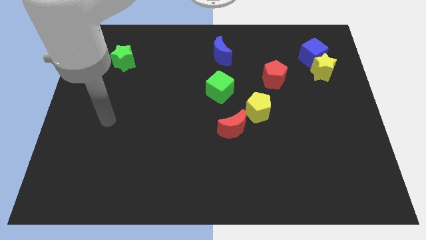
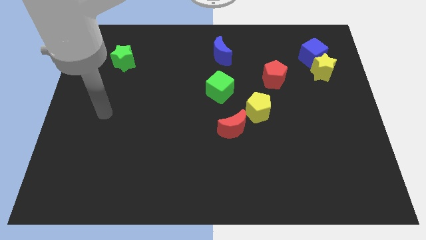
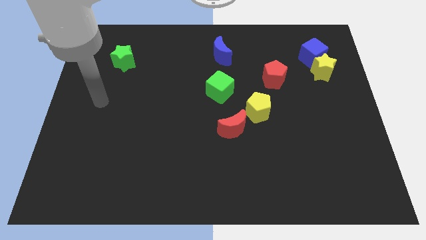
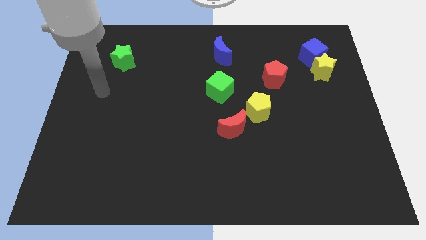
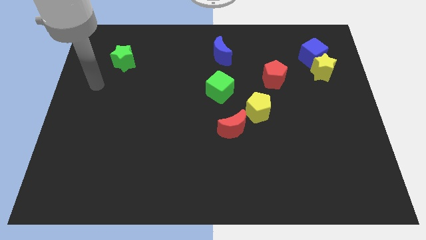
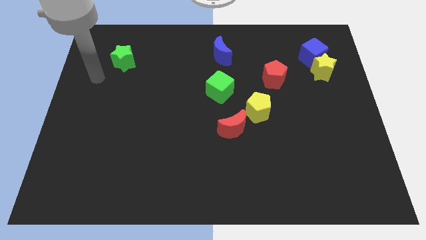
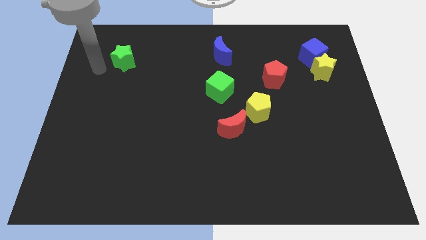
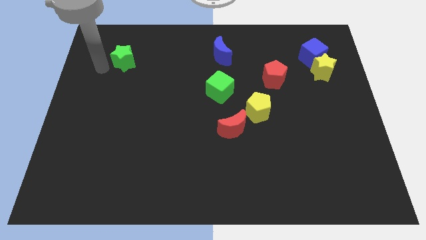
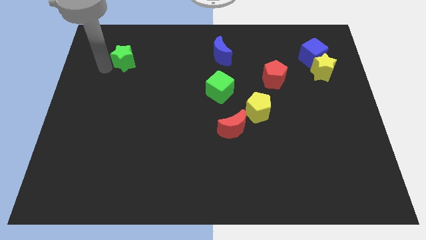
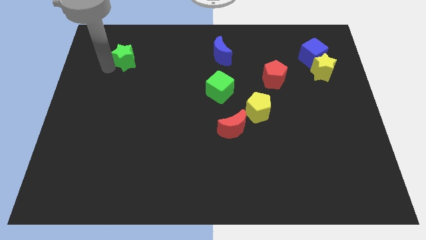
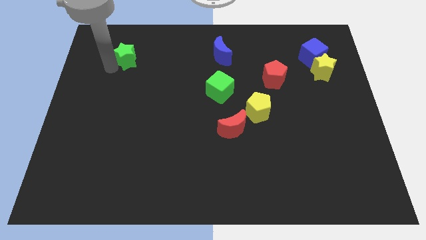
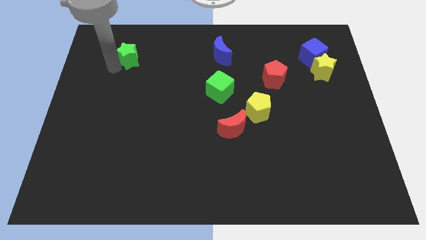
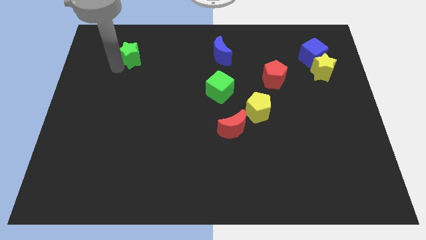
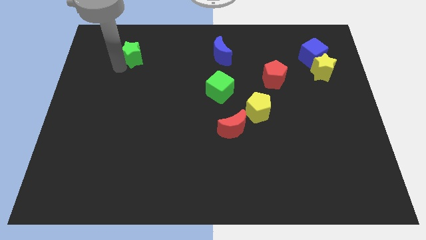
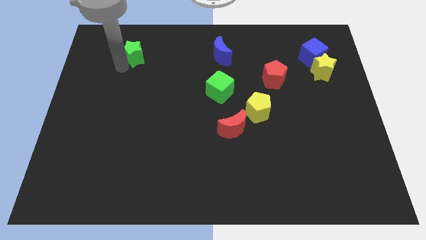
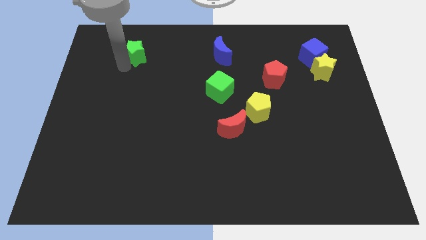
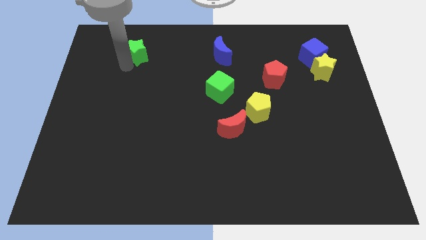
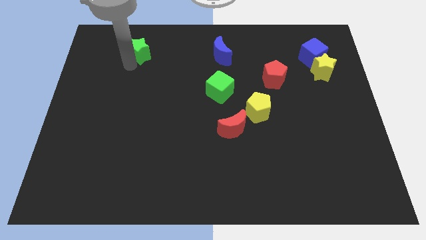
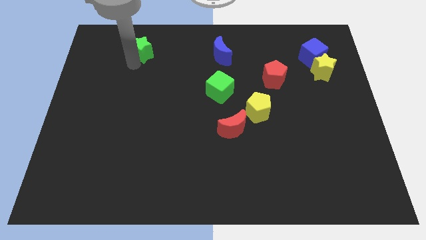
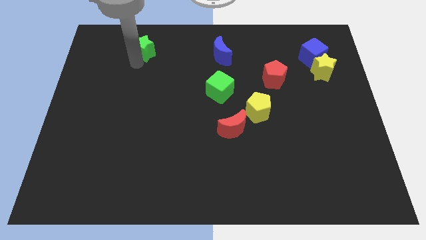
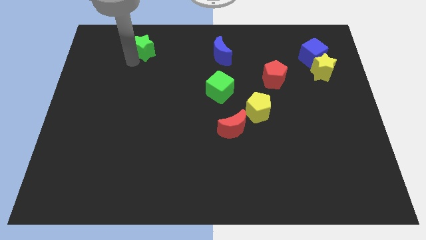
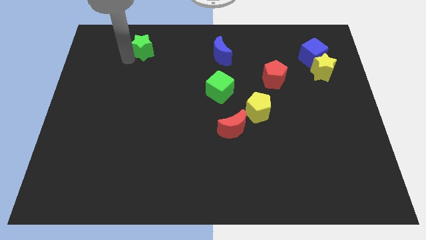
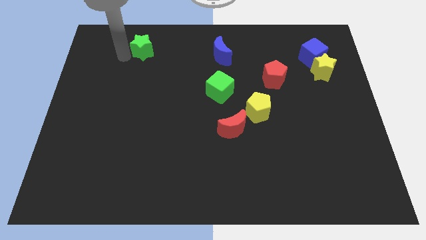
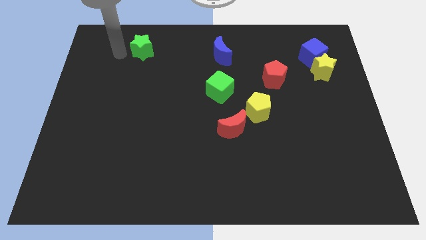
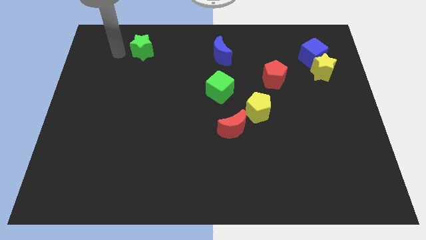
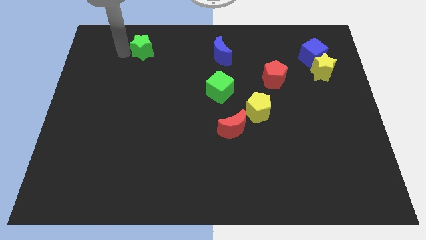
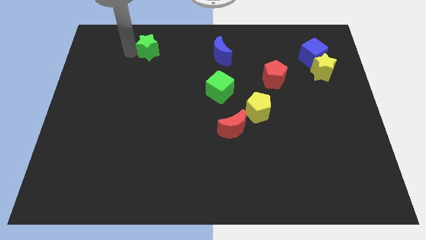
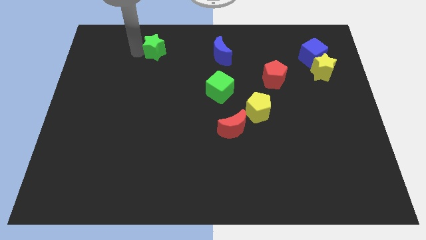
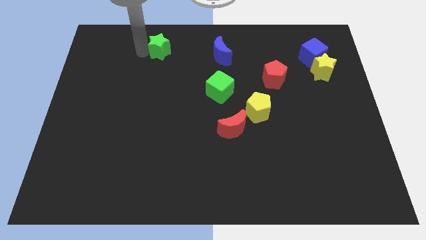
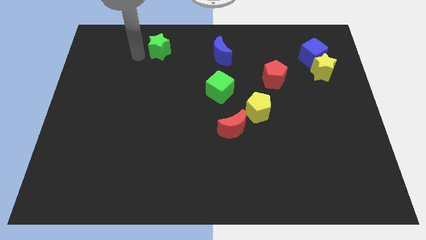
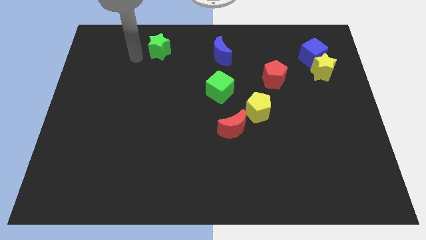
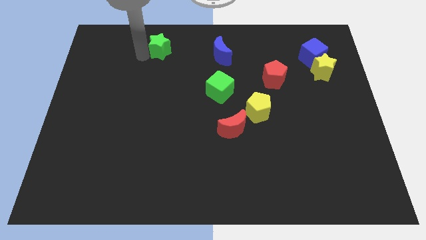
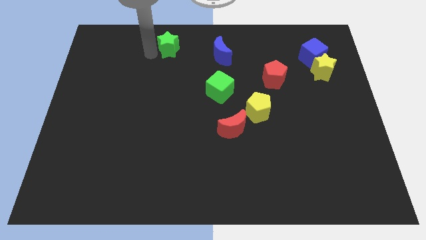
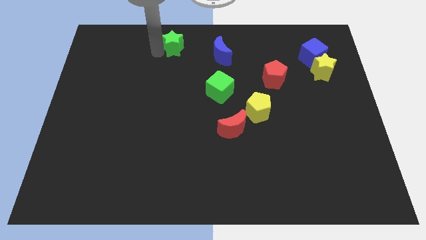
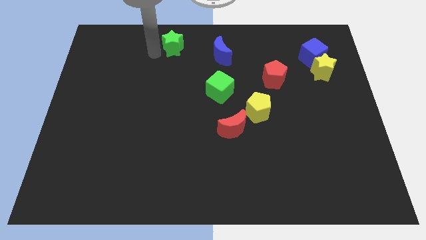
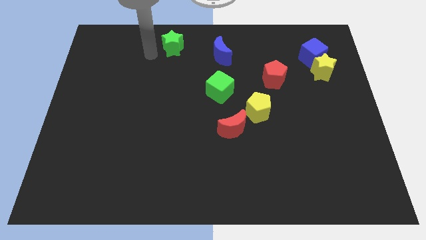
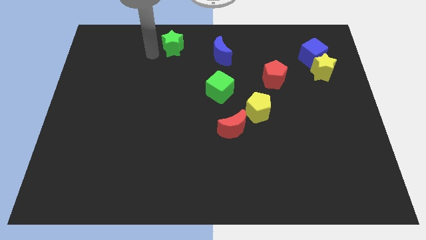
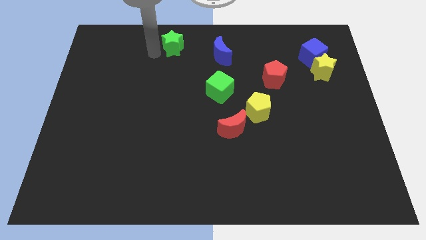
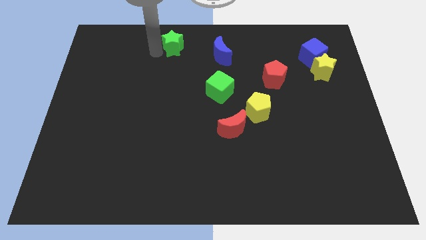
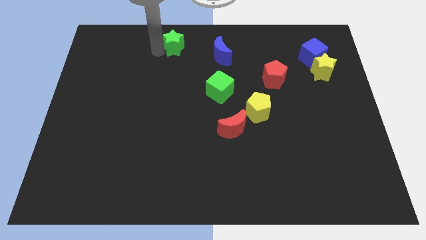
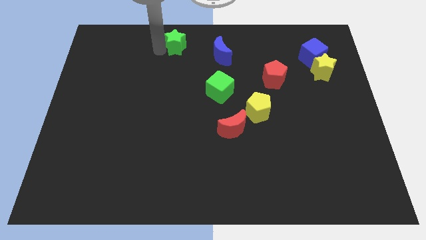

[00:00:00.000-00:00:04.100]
slide the green star to the top

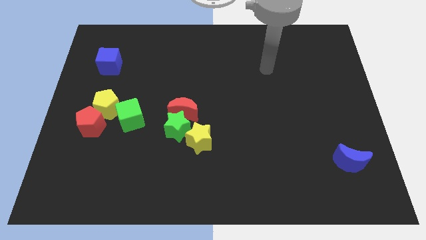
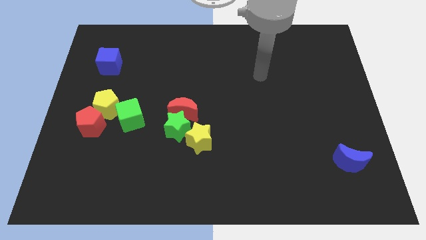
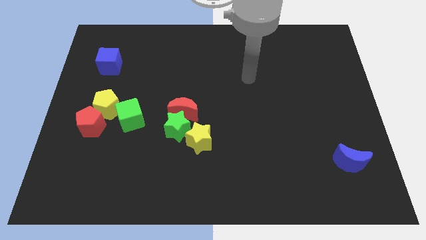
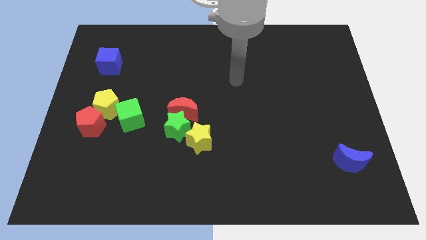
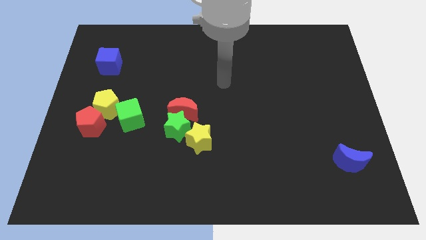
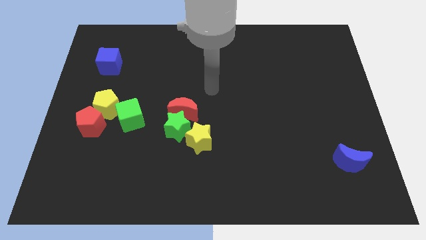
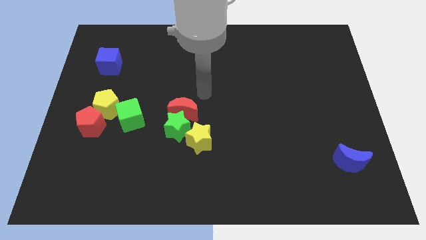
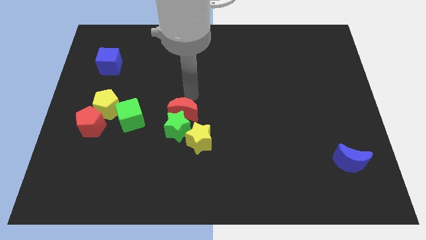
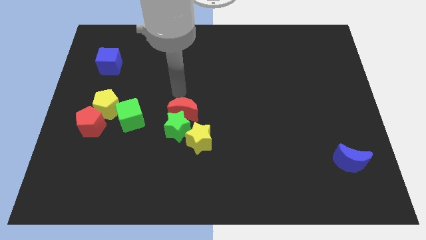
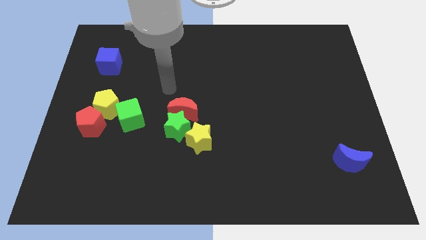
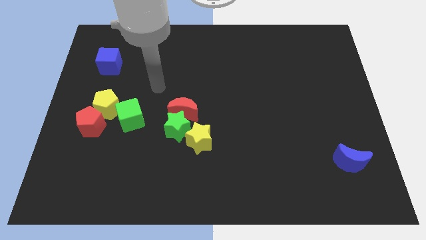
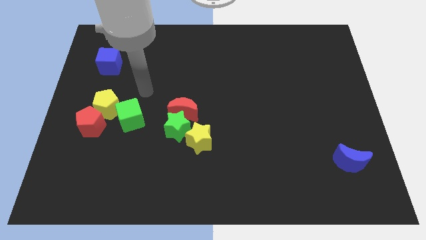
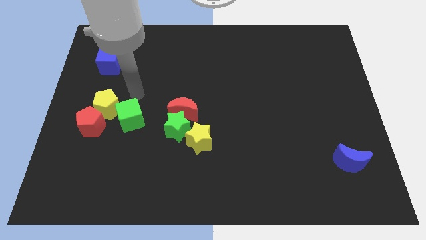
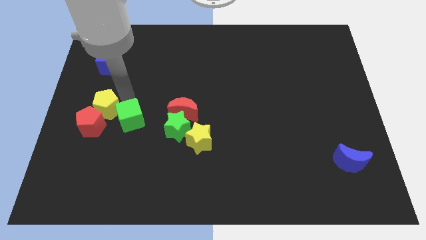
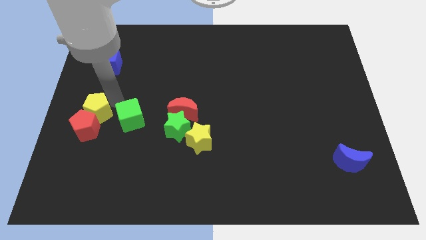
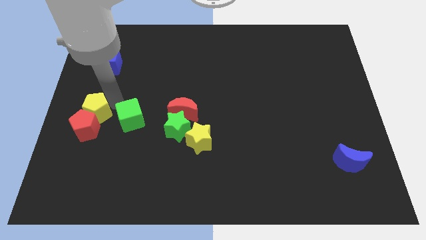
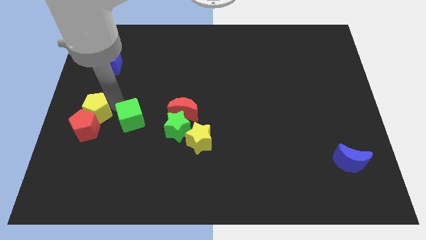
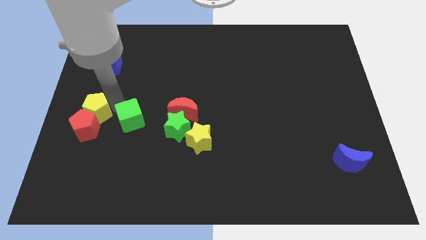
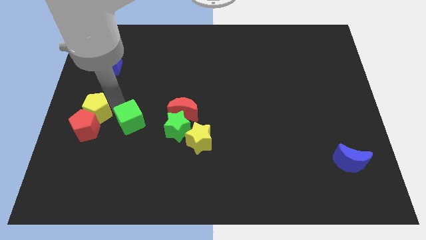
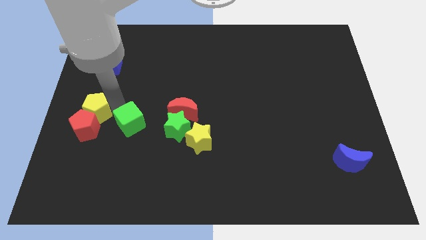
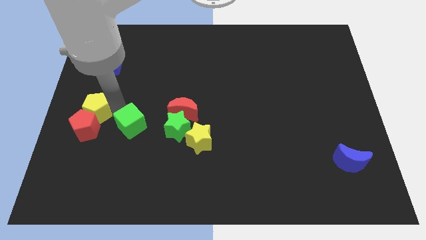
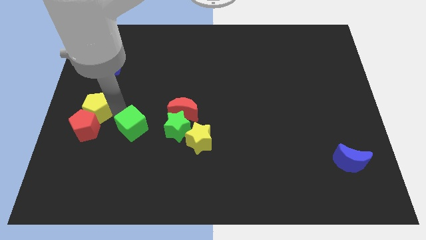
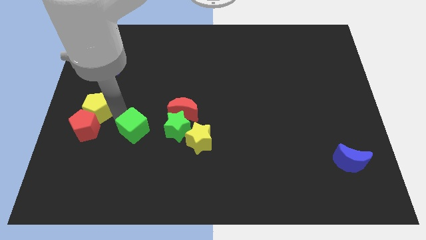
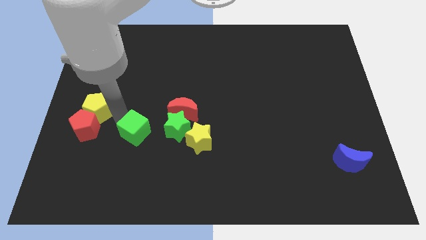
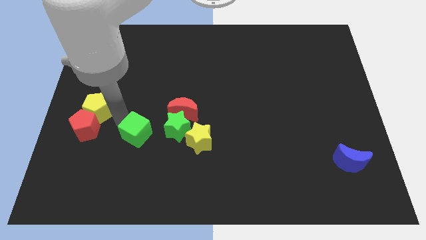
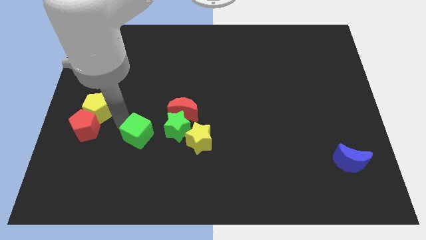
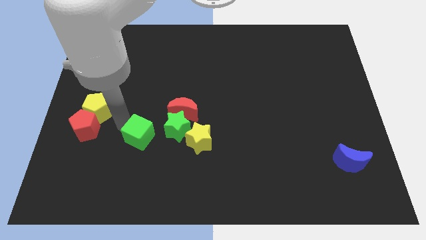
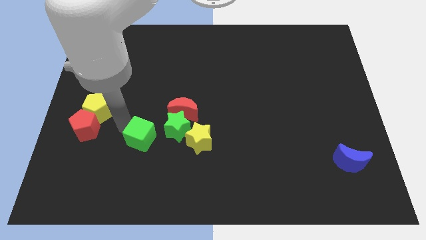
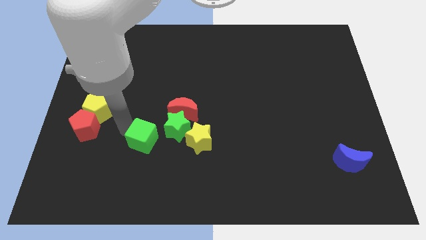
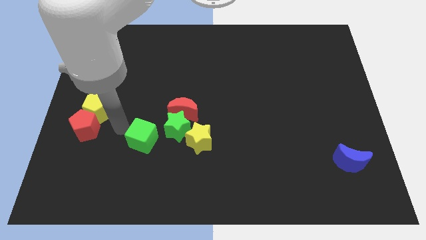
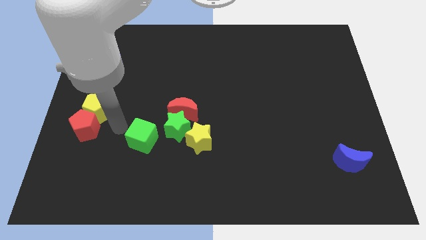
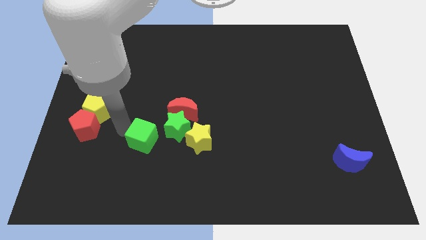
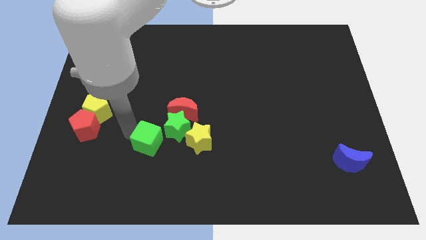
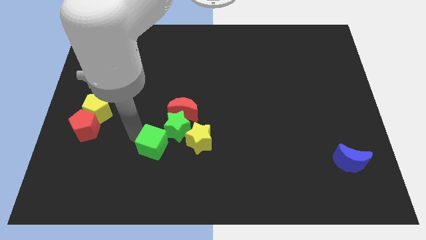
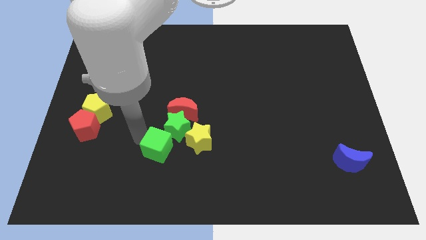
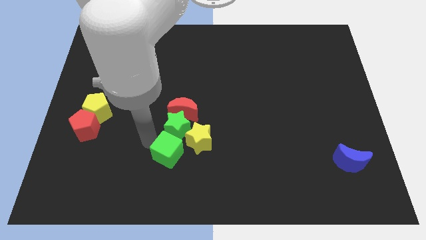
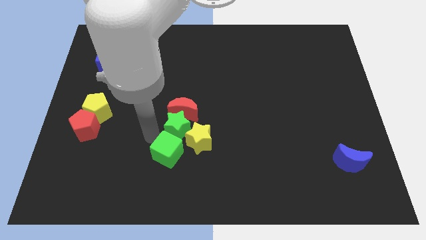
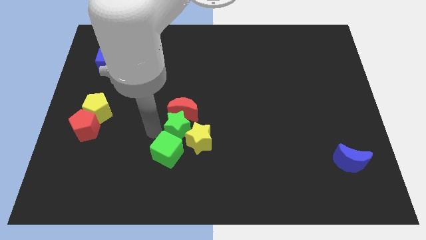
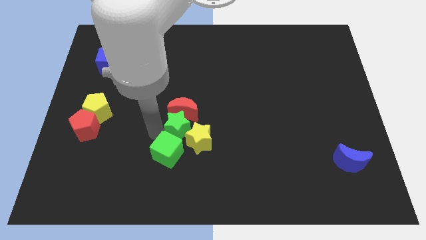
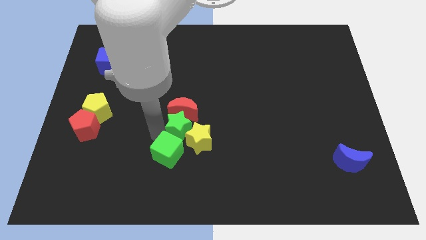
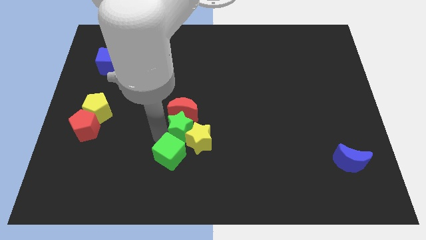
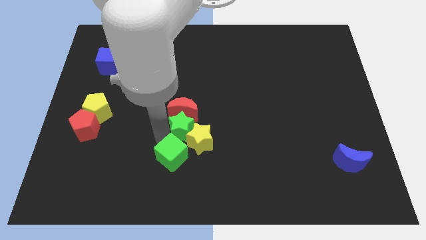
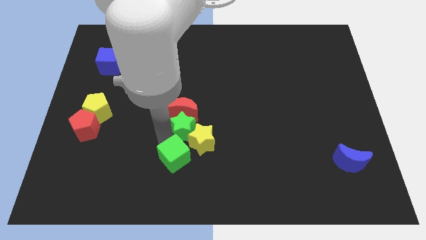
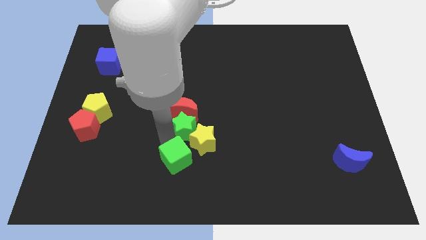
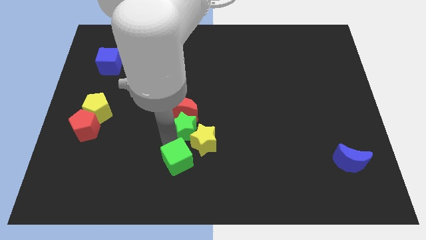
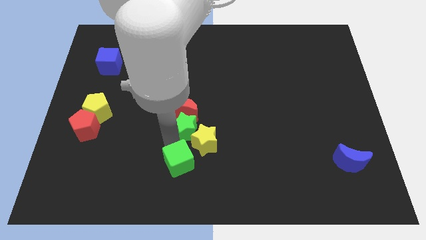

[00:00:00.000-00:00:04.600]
push the green cube to the bottom
